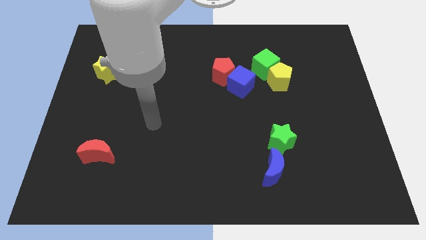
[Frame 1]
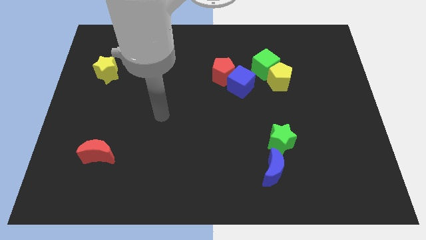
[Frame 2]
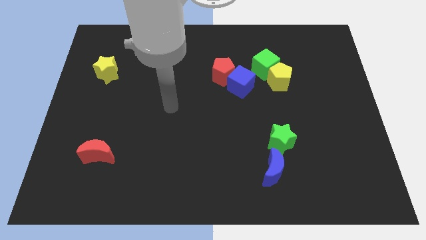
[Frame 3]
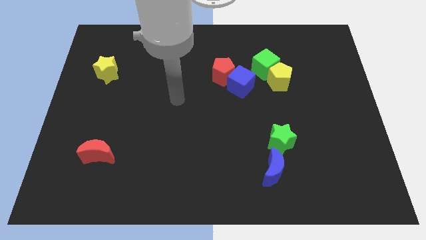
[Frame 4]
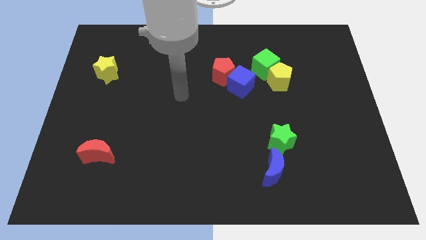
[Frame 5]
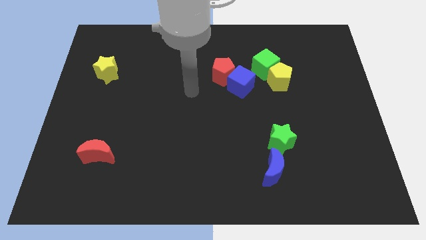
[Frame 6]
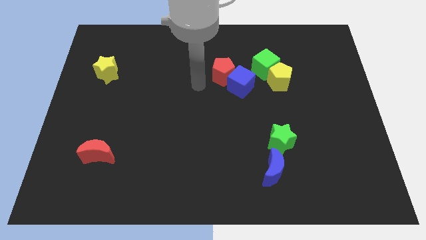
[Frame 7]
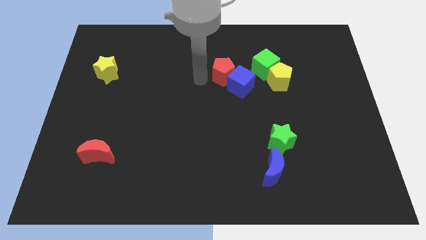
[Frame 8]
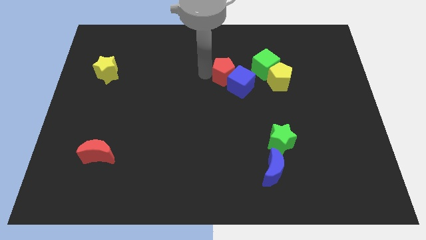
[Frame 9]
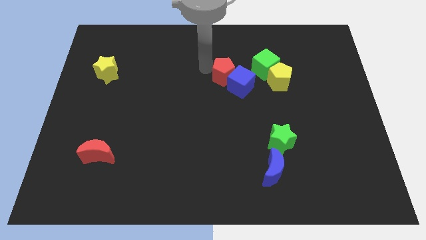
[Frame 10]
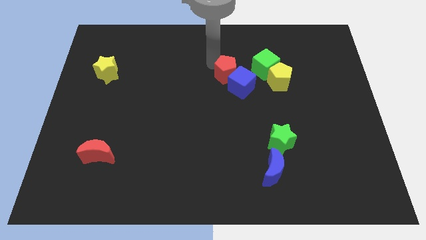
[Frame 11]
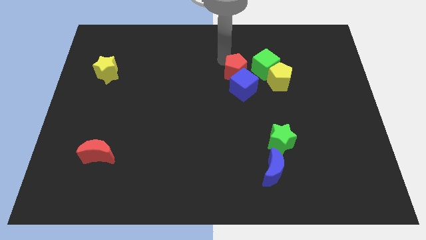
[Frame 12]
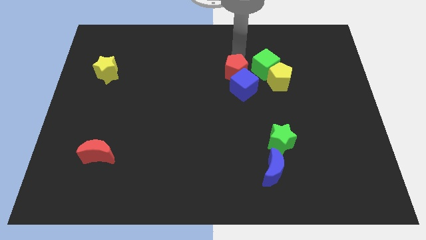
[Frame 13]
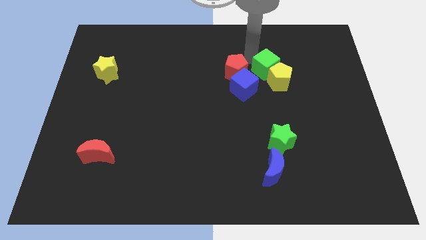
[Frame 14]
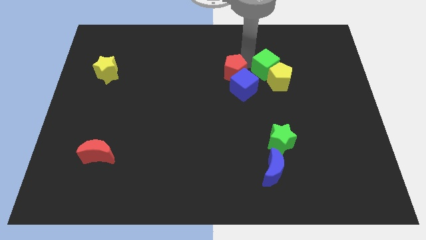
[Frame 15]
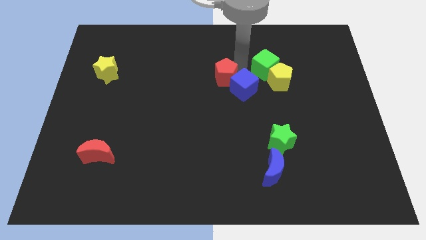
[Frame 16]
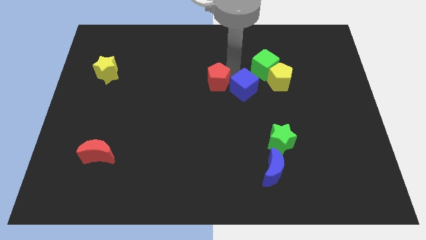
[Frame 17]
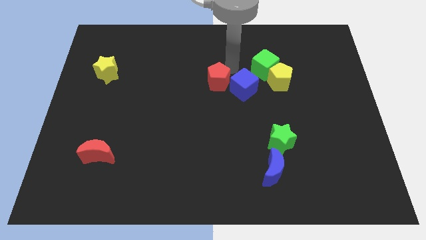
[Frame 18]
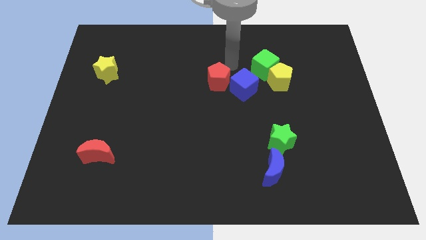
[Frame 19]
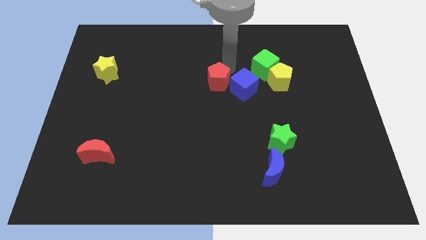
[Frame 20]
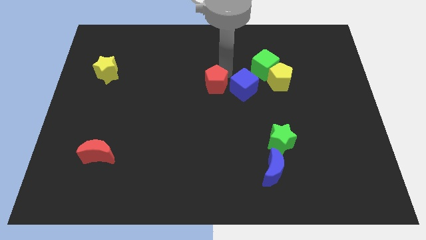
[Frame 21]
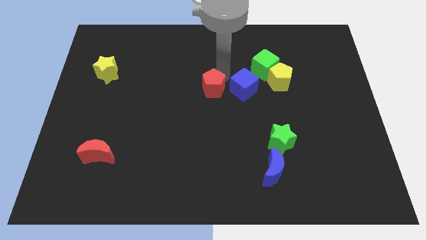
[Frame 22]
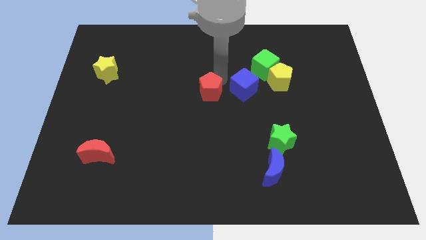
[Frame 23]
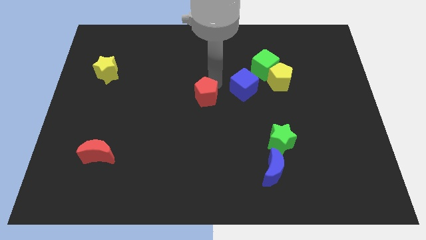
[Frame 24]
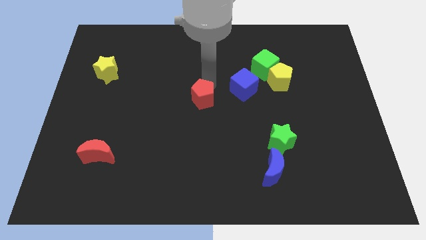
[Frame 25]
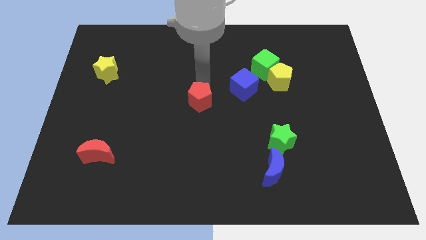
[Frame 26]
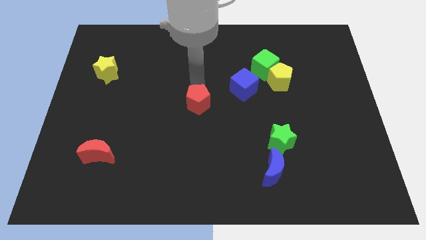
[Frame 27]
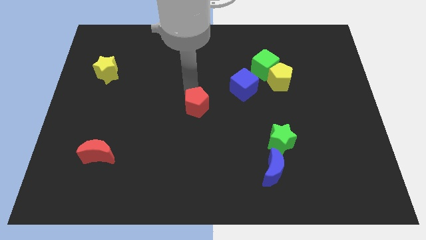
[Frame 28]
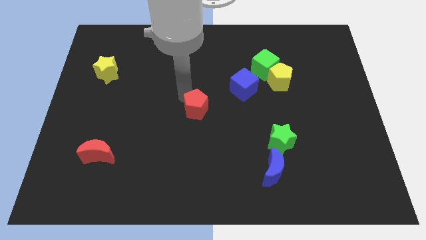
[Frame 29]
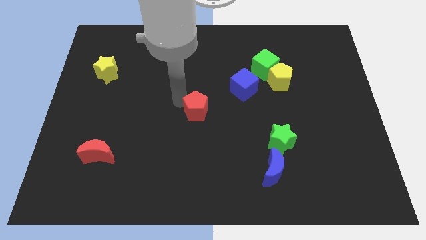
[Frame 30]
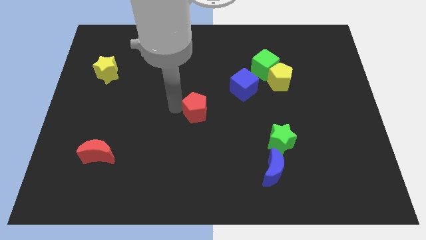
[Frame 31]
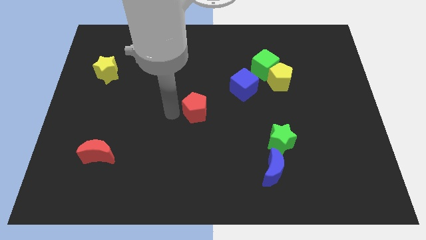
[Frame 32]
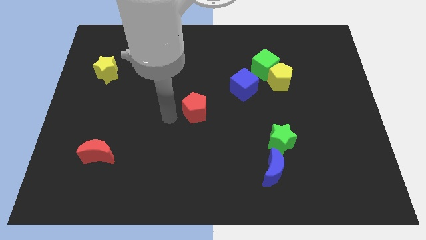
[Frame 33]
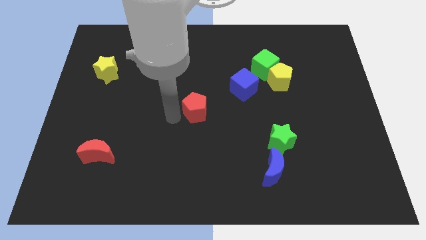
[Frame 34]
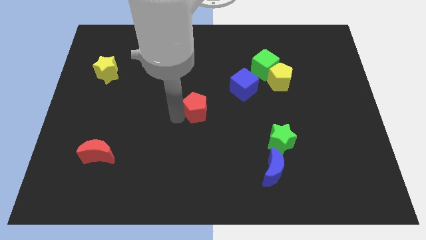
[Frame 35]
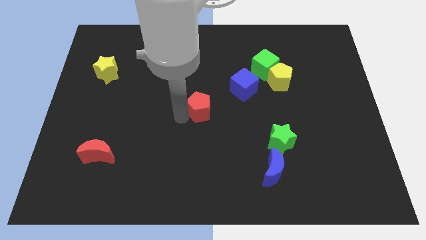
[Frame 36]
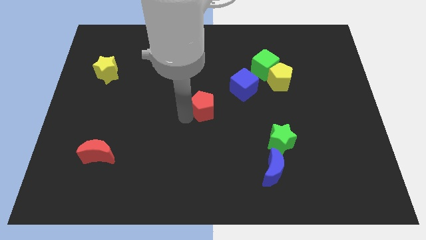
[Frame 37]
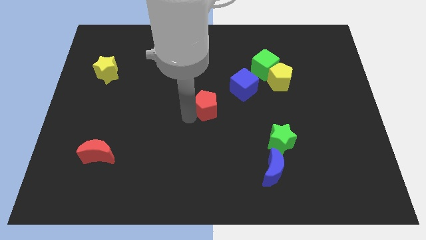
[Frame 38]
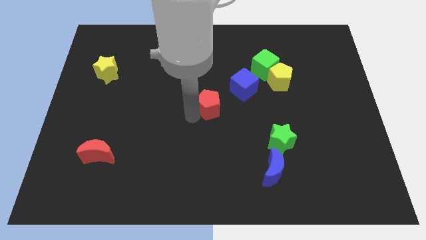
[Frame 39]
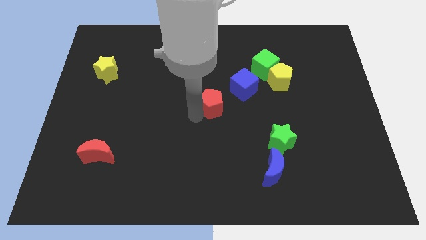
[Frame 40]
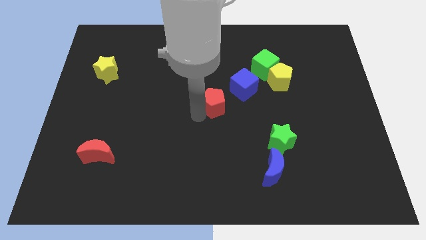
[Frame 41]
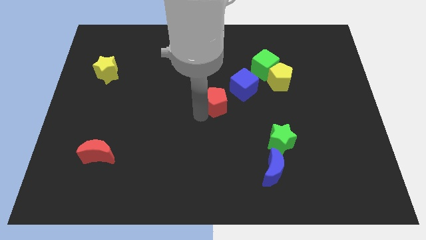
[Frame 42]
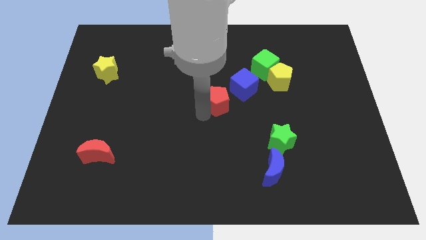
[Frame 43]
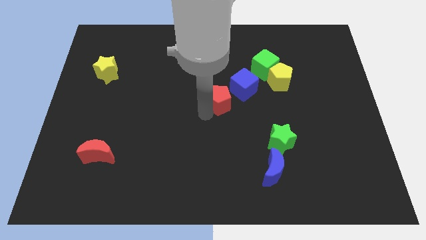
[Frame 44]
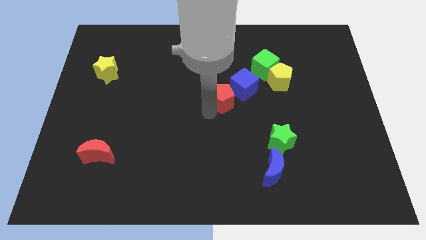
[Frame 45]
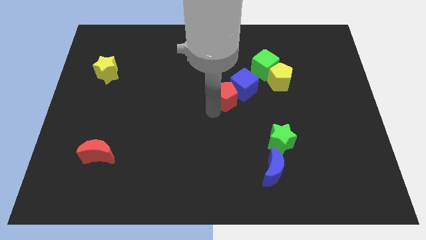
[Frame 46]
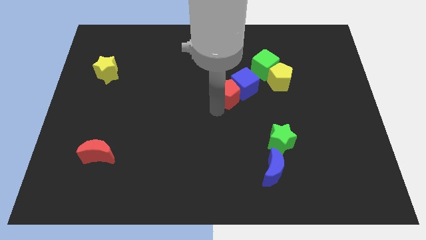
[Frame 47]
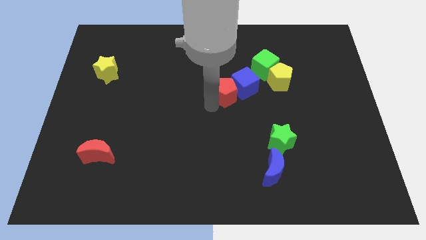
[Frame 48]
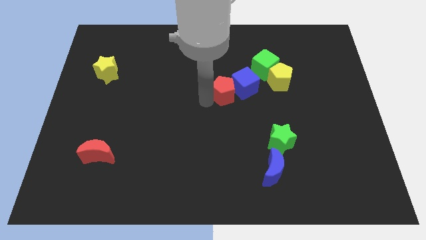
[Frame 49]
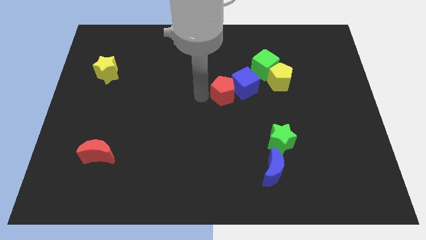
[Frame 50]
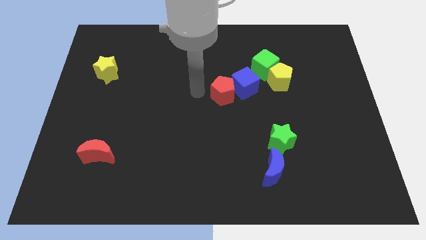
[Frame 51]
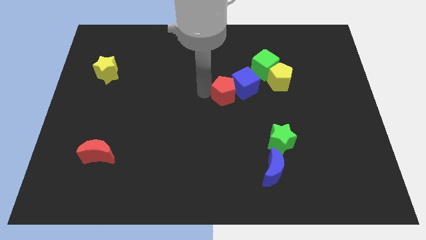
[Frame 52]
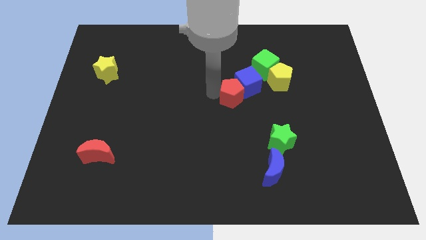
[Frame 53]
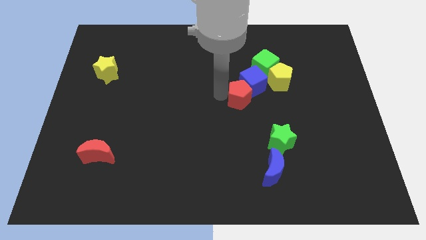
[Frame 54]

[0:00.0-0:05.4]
slide the red pentagon diagonally down and to the left of the yellow pentagon

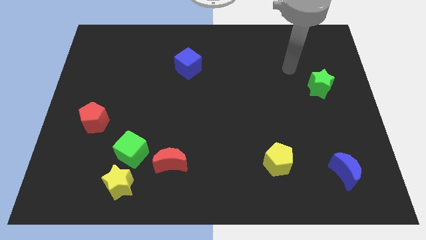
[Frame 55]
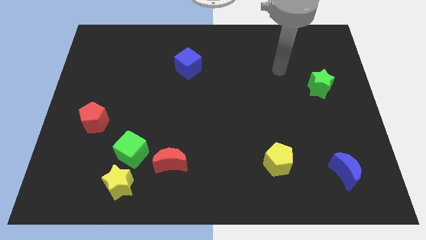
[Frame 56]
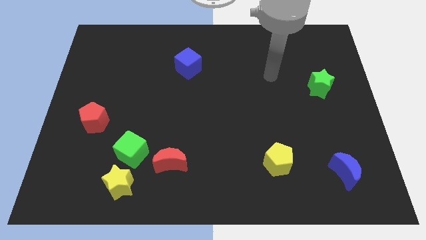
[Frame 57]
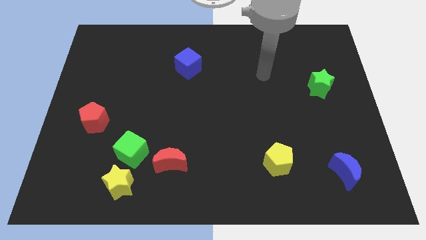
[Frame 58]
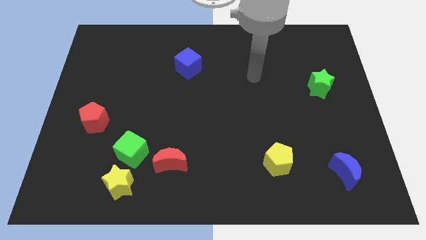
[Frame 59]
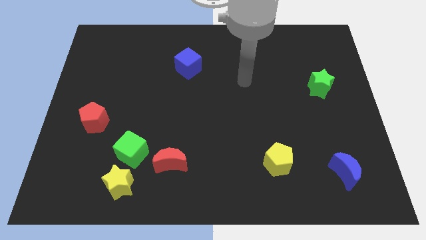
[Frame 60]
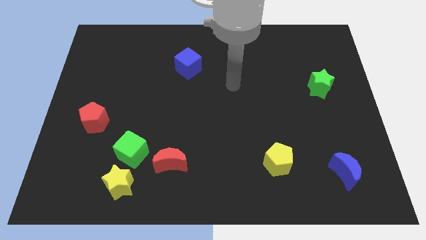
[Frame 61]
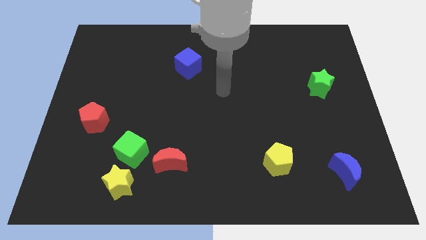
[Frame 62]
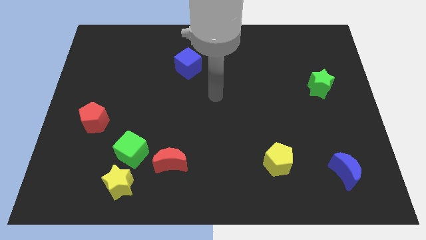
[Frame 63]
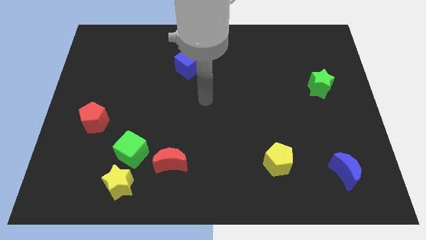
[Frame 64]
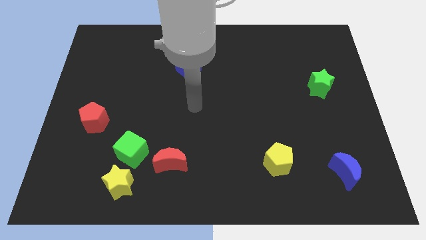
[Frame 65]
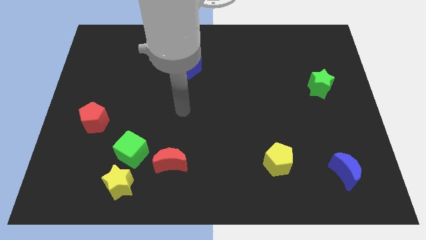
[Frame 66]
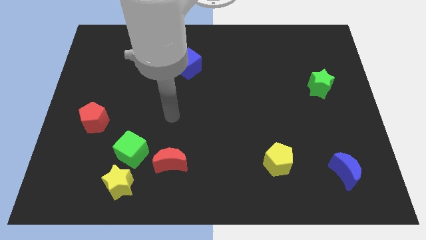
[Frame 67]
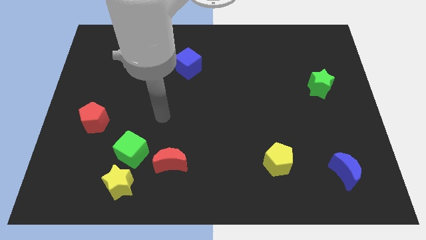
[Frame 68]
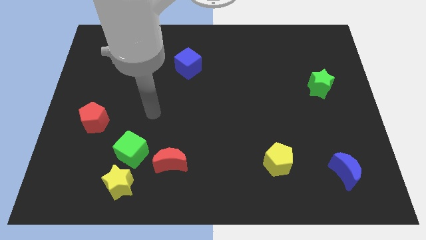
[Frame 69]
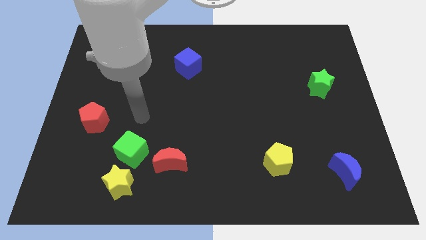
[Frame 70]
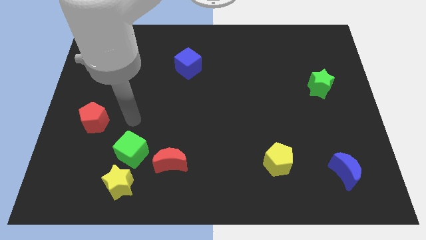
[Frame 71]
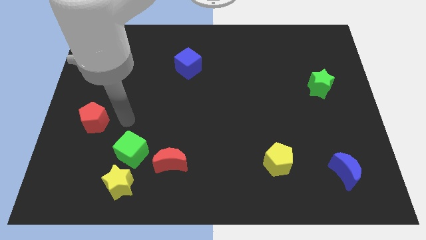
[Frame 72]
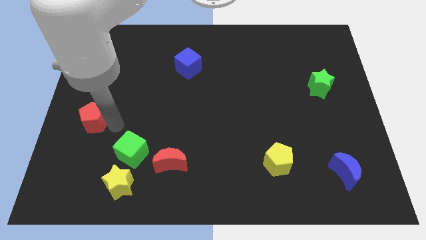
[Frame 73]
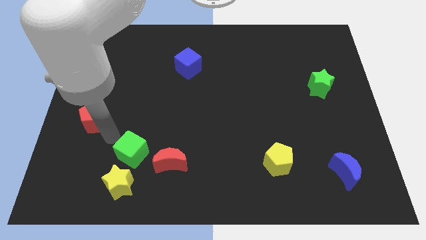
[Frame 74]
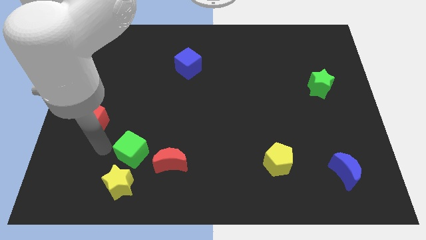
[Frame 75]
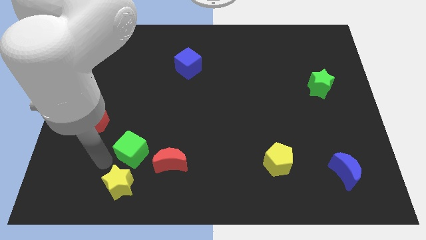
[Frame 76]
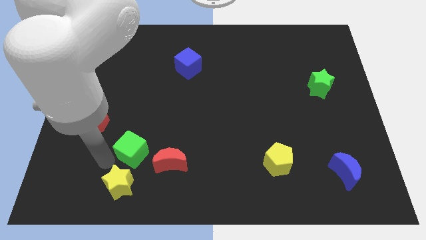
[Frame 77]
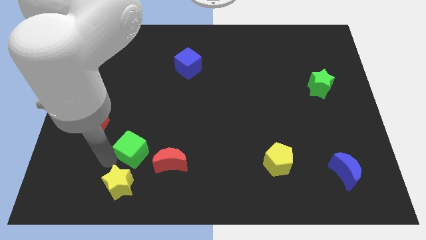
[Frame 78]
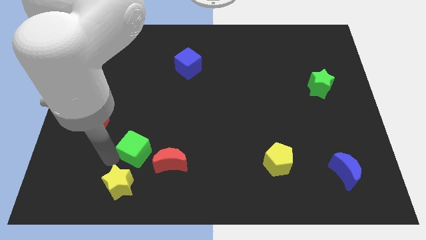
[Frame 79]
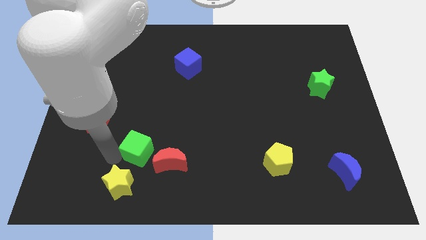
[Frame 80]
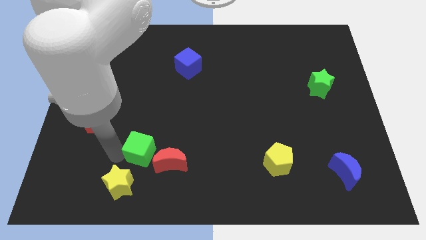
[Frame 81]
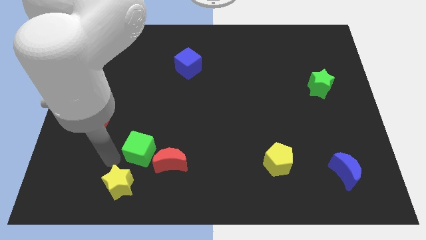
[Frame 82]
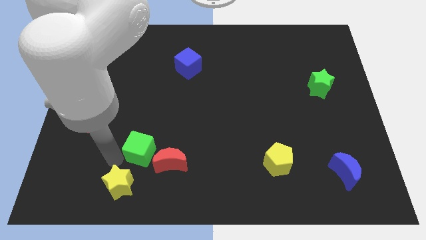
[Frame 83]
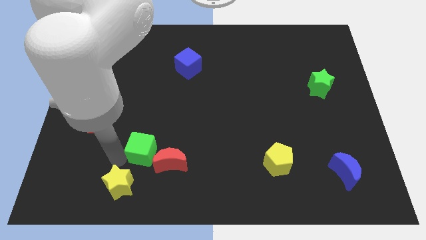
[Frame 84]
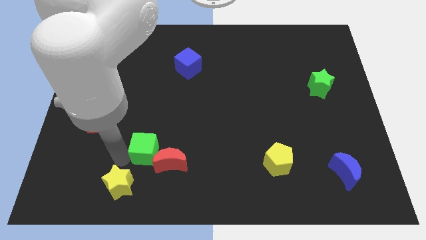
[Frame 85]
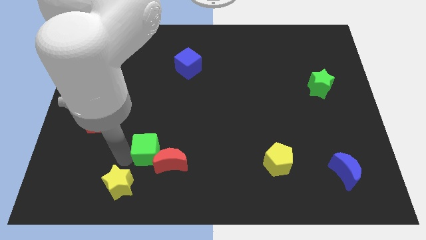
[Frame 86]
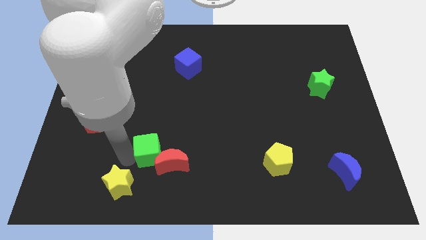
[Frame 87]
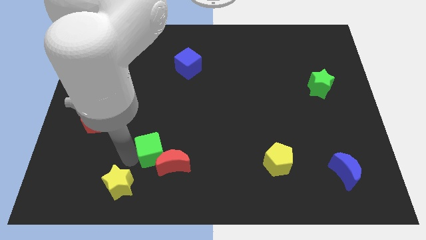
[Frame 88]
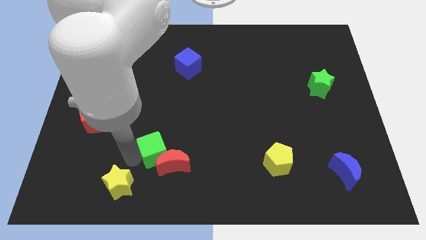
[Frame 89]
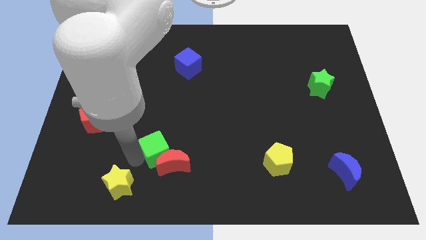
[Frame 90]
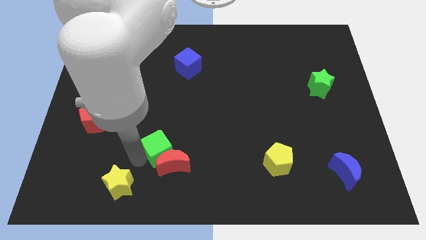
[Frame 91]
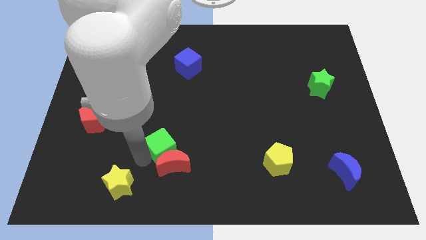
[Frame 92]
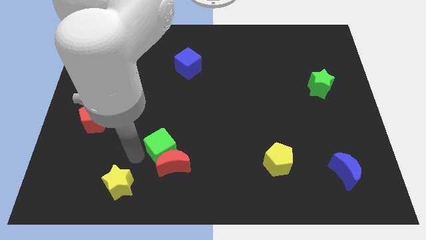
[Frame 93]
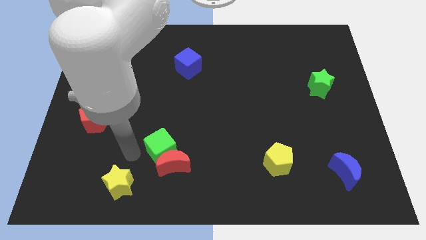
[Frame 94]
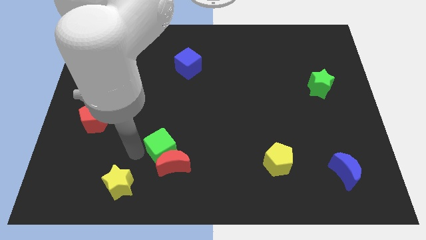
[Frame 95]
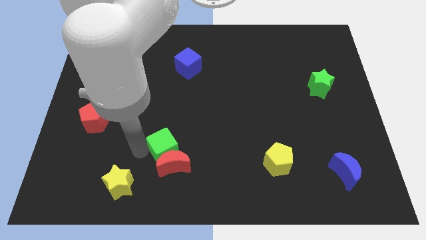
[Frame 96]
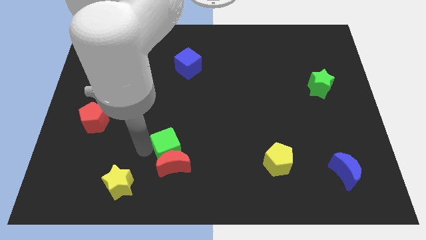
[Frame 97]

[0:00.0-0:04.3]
slide the green cube diagonally up and to the right of the red moon
